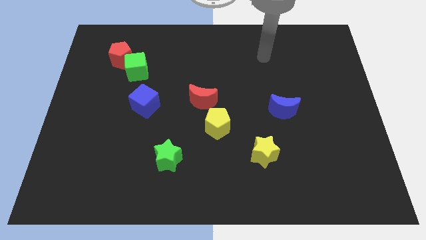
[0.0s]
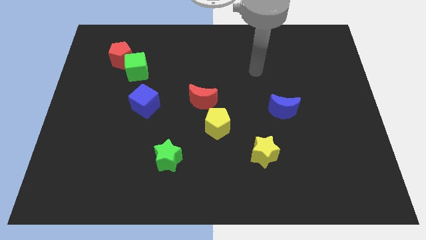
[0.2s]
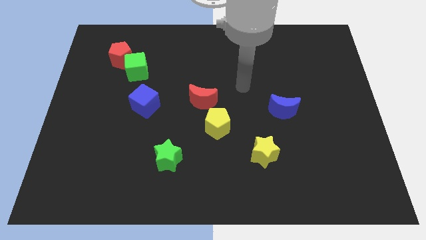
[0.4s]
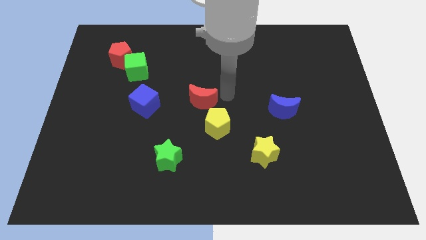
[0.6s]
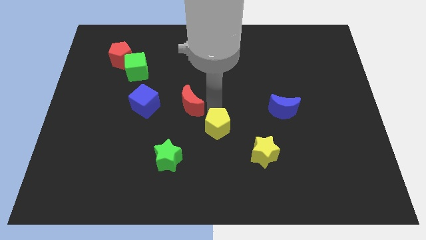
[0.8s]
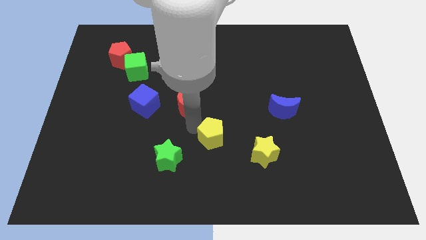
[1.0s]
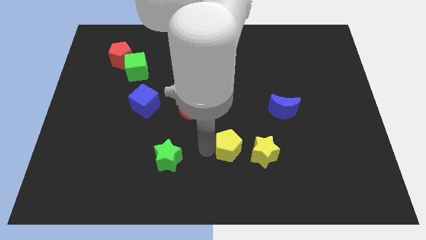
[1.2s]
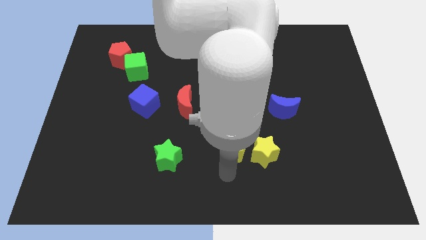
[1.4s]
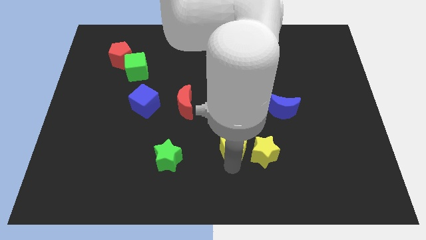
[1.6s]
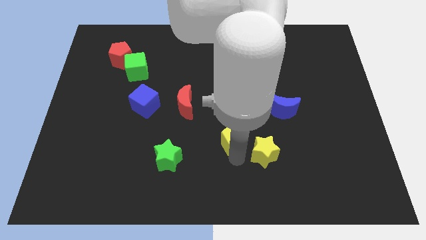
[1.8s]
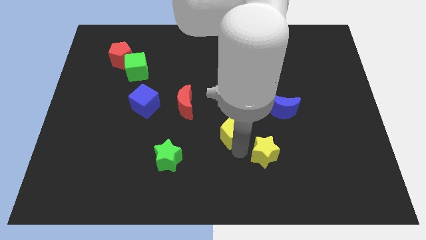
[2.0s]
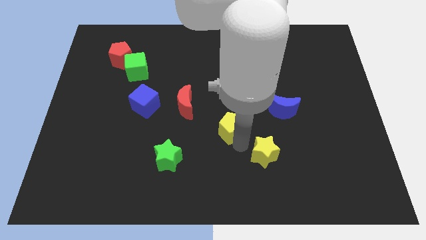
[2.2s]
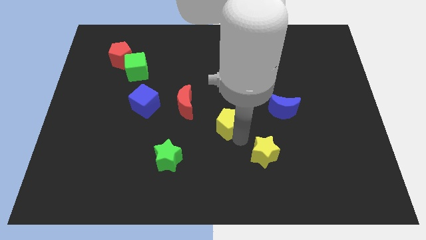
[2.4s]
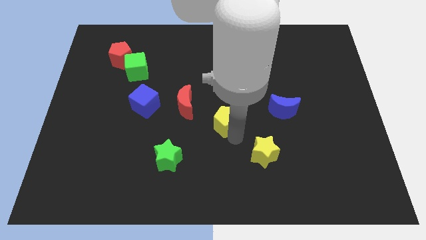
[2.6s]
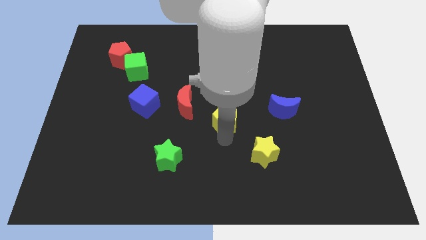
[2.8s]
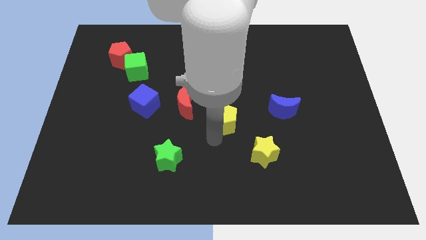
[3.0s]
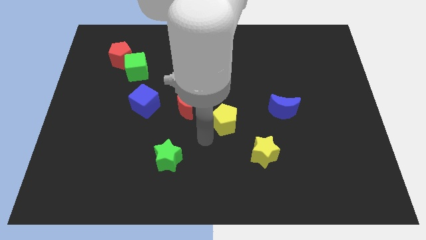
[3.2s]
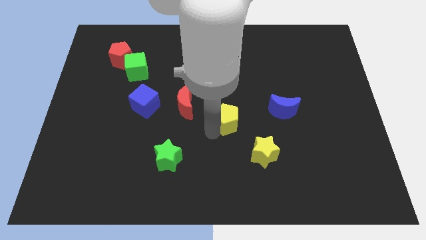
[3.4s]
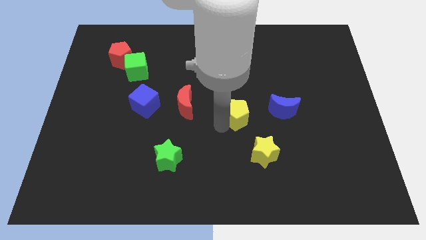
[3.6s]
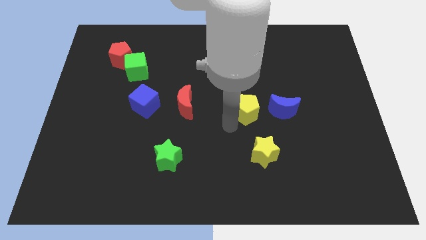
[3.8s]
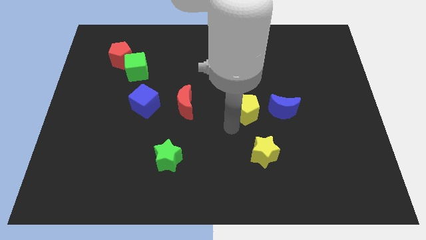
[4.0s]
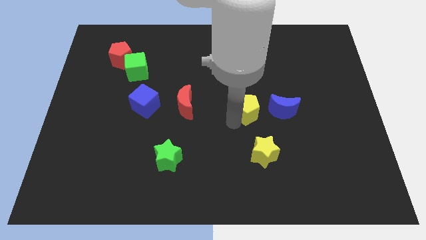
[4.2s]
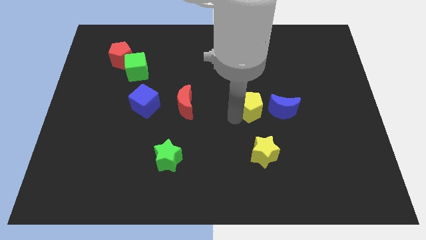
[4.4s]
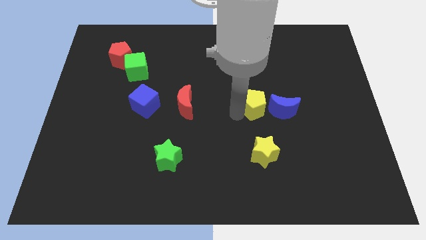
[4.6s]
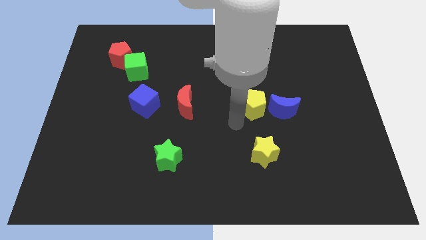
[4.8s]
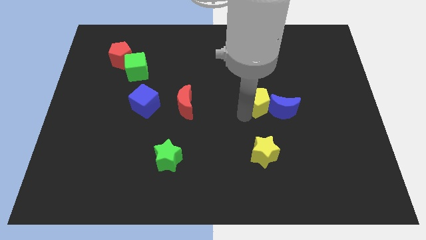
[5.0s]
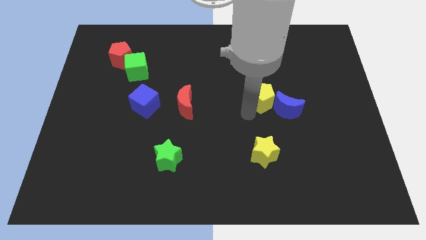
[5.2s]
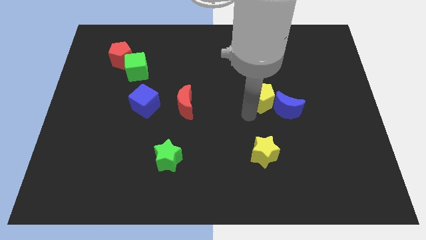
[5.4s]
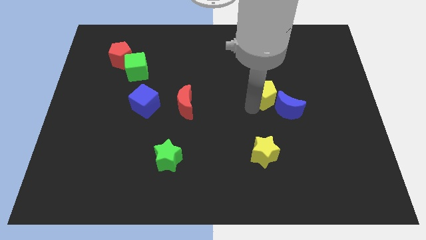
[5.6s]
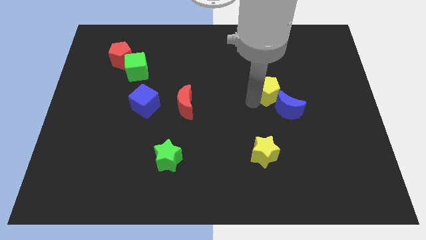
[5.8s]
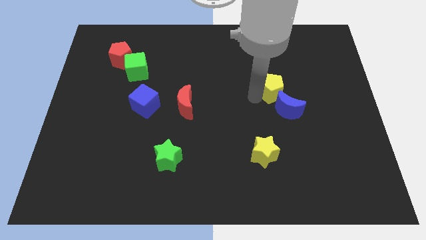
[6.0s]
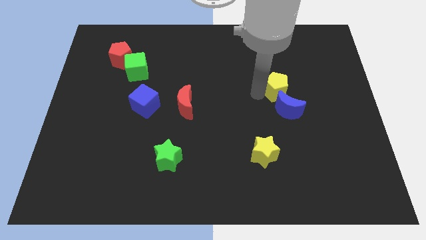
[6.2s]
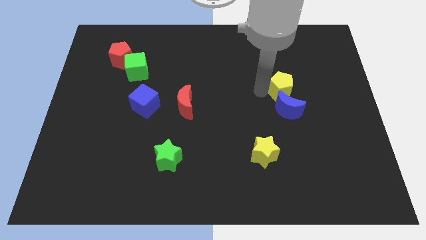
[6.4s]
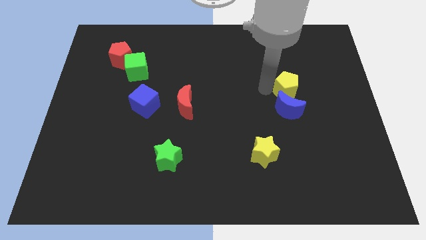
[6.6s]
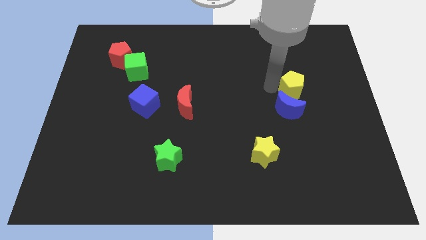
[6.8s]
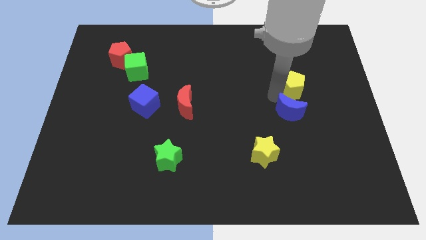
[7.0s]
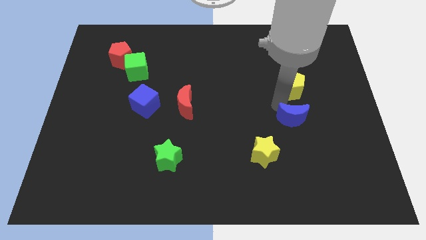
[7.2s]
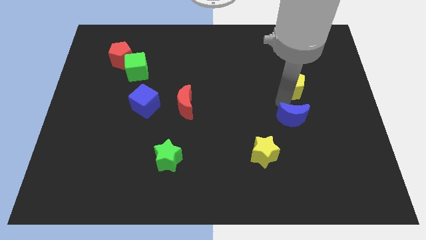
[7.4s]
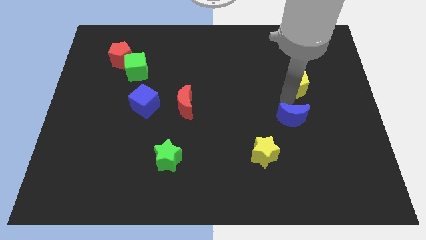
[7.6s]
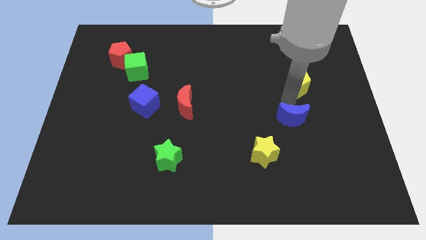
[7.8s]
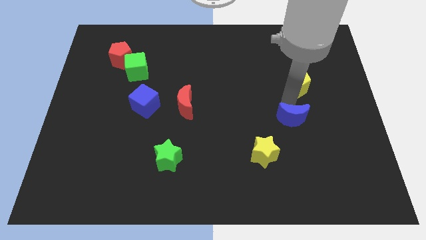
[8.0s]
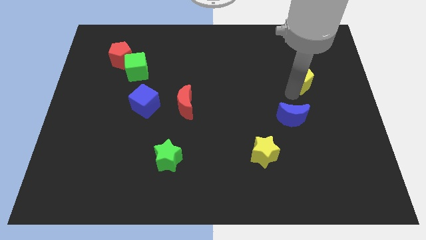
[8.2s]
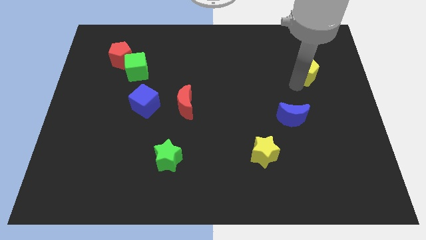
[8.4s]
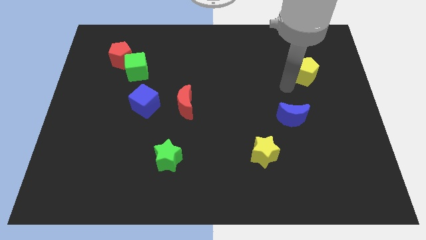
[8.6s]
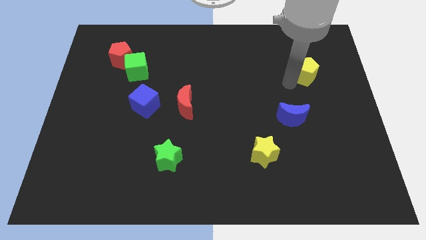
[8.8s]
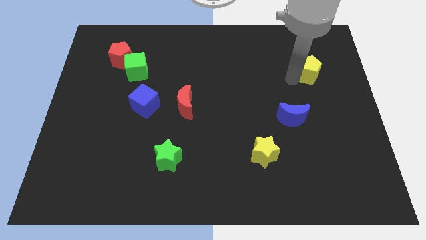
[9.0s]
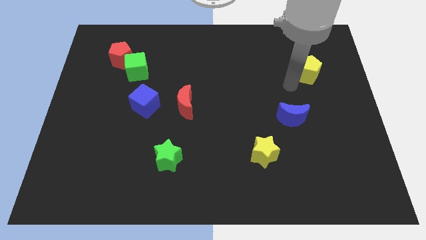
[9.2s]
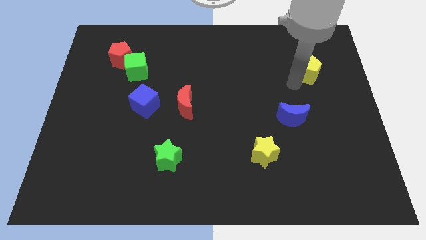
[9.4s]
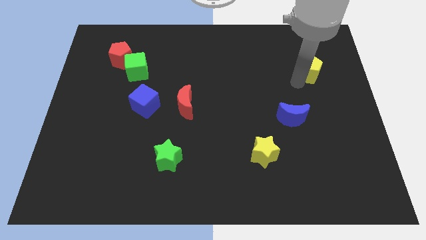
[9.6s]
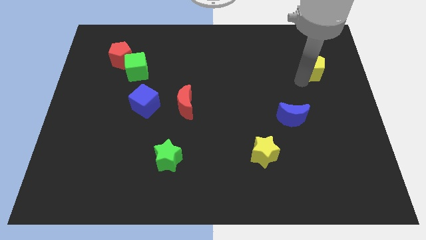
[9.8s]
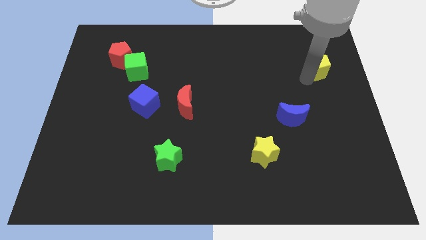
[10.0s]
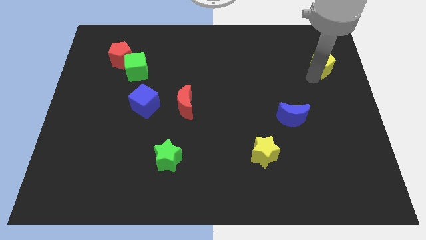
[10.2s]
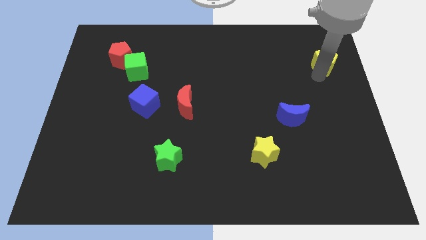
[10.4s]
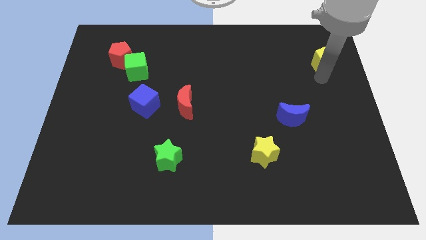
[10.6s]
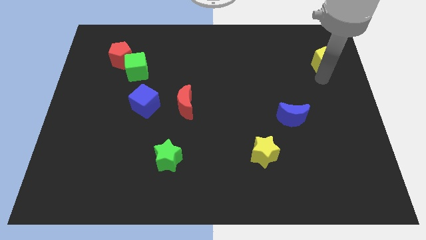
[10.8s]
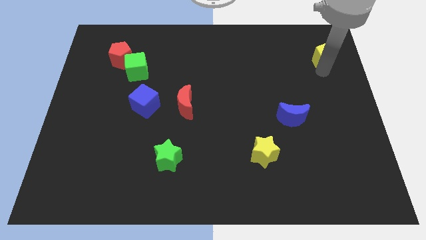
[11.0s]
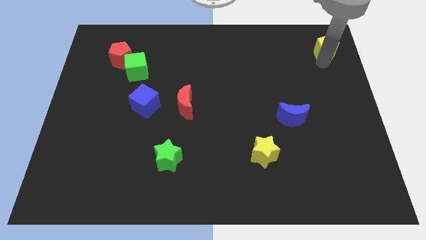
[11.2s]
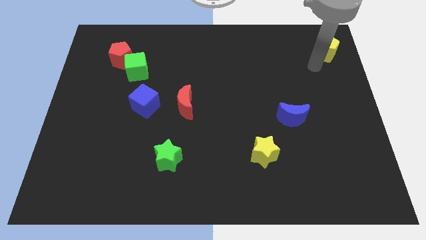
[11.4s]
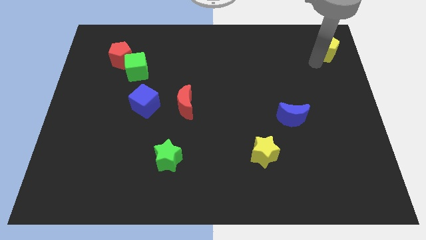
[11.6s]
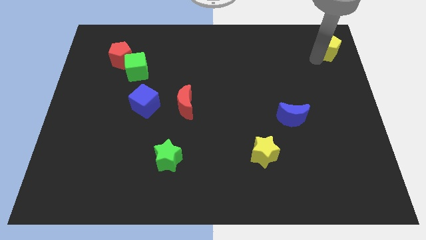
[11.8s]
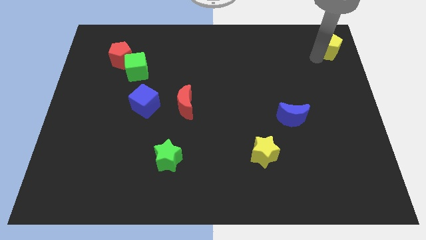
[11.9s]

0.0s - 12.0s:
push the yellow pentagon to the top right corner
